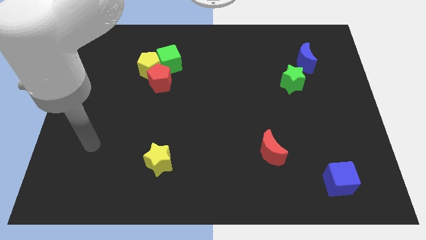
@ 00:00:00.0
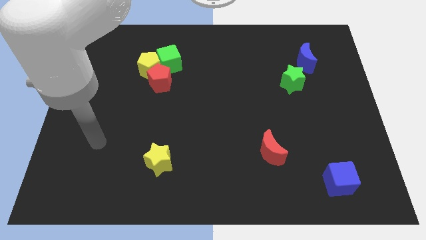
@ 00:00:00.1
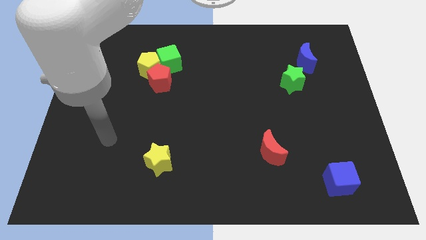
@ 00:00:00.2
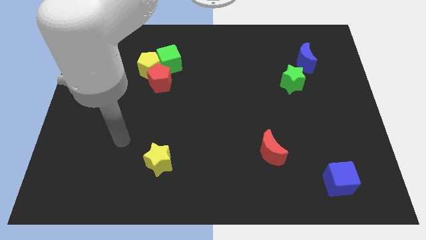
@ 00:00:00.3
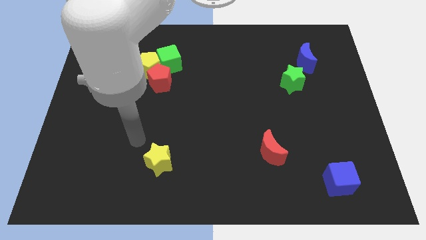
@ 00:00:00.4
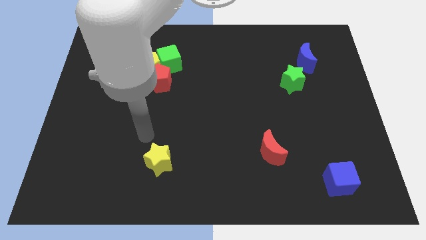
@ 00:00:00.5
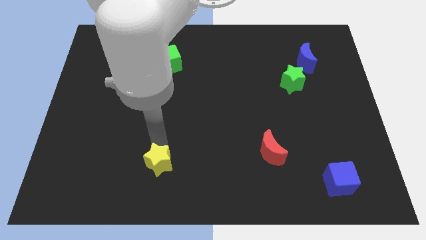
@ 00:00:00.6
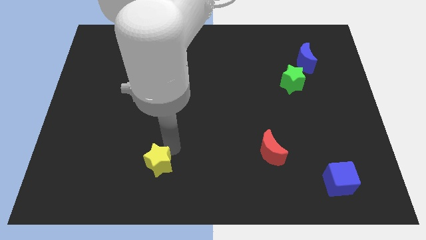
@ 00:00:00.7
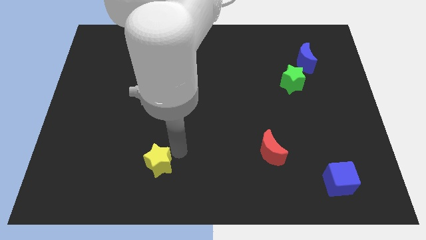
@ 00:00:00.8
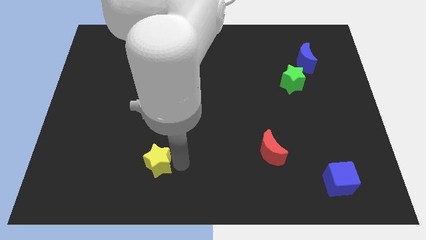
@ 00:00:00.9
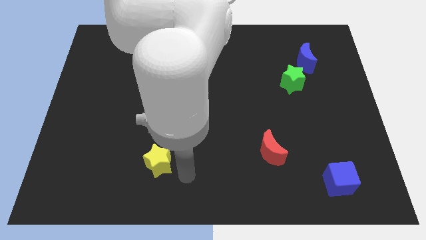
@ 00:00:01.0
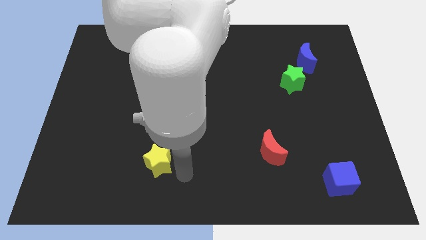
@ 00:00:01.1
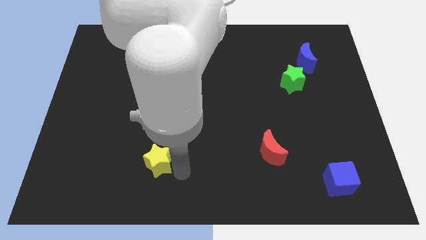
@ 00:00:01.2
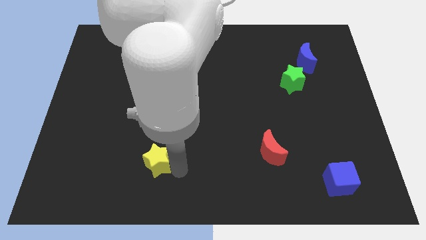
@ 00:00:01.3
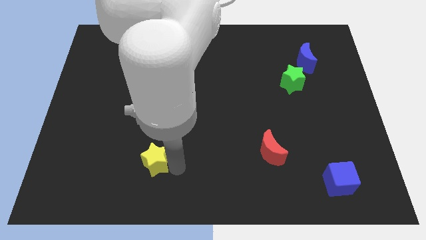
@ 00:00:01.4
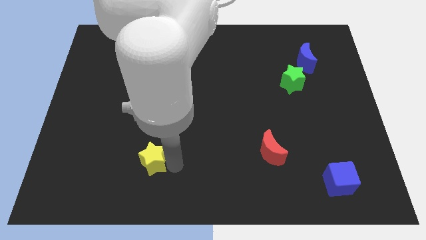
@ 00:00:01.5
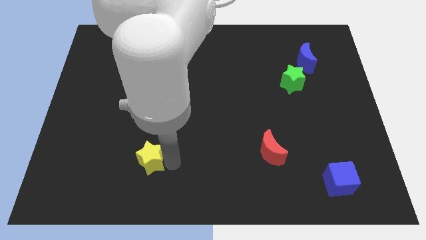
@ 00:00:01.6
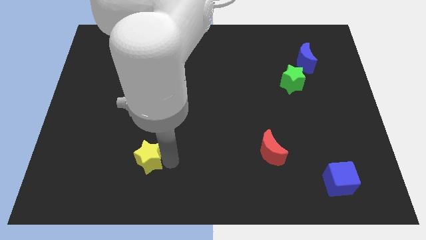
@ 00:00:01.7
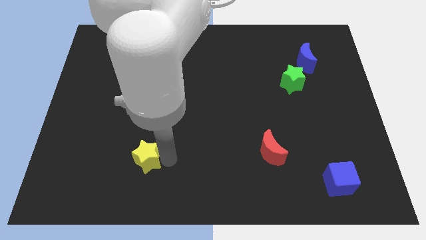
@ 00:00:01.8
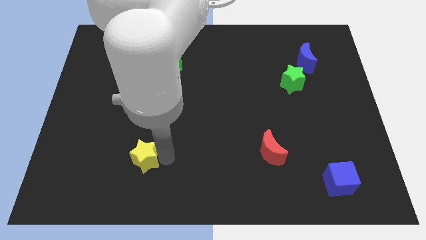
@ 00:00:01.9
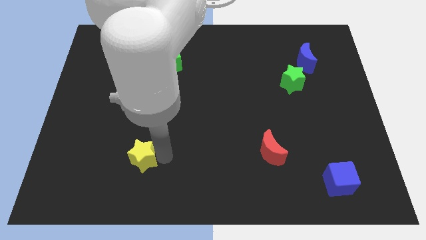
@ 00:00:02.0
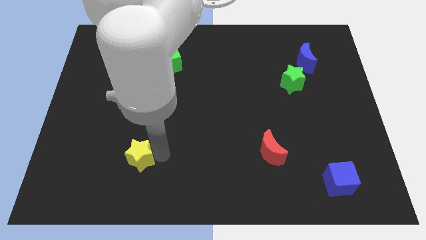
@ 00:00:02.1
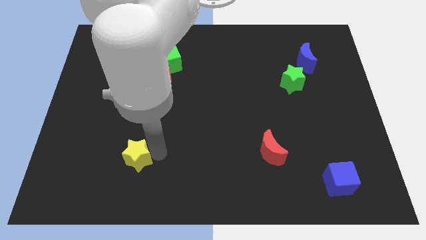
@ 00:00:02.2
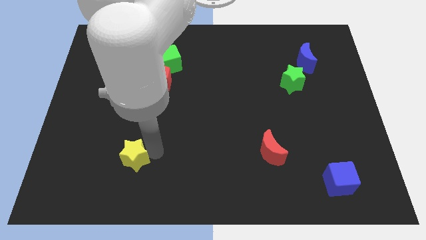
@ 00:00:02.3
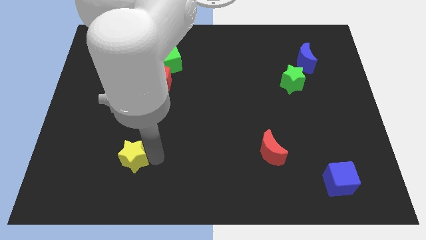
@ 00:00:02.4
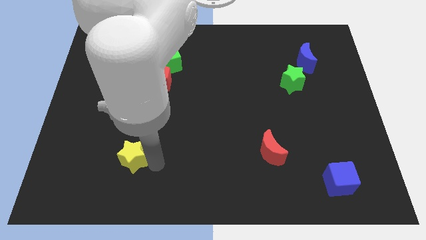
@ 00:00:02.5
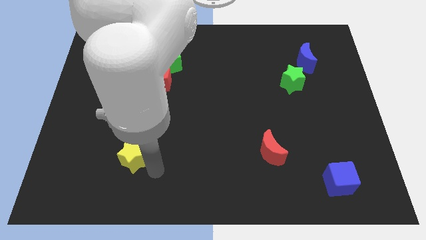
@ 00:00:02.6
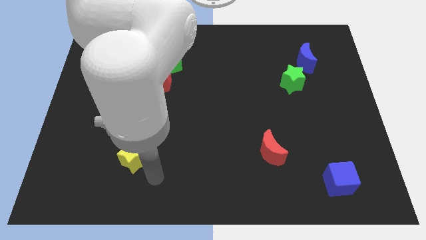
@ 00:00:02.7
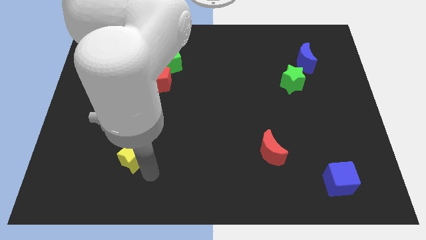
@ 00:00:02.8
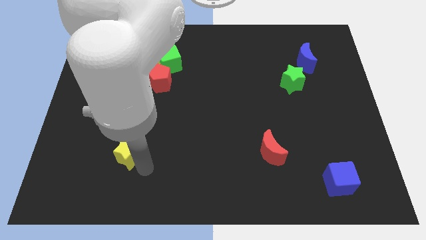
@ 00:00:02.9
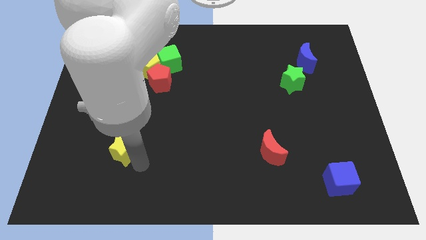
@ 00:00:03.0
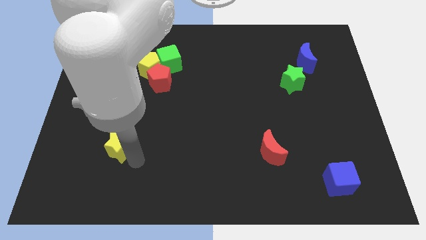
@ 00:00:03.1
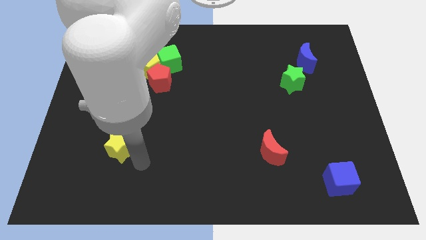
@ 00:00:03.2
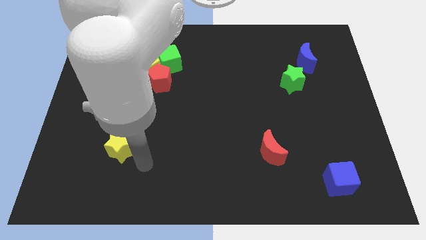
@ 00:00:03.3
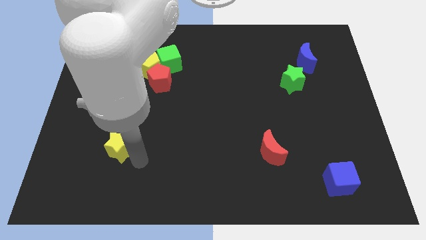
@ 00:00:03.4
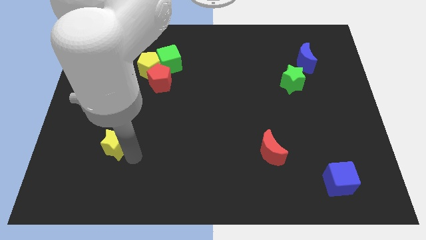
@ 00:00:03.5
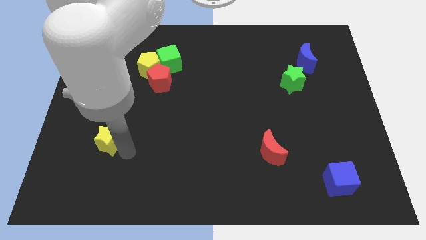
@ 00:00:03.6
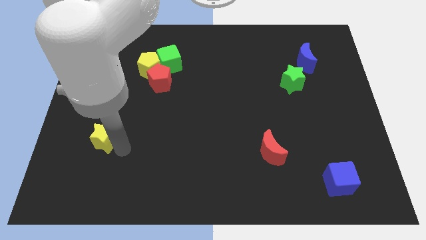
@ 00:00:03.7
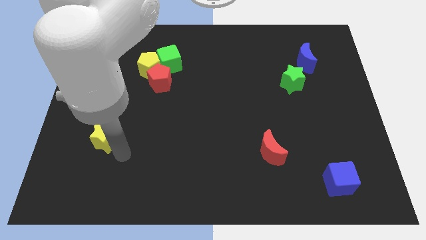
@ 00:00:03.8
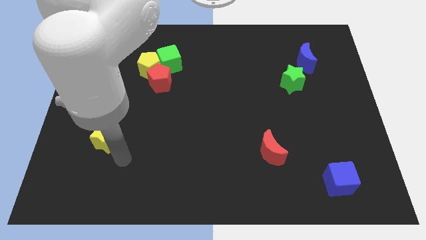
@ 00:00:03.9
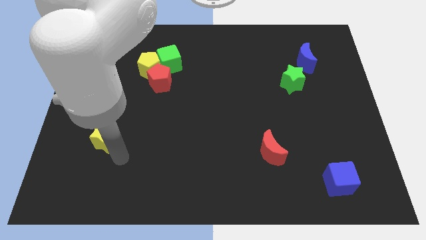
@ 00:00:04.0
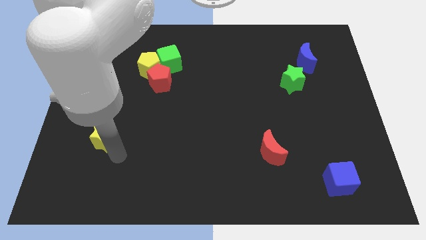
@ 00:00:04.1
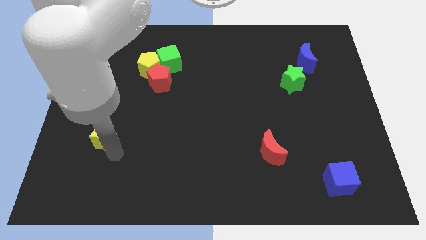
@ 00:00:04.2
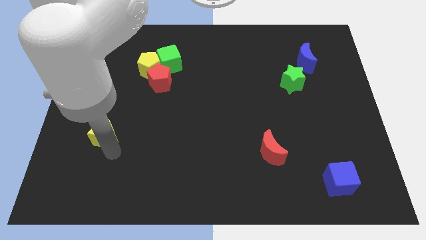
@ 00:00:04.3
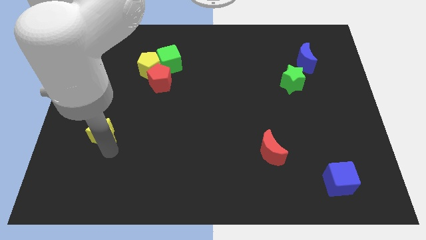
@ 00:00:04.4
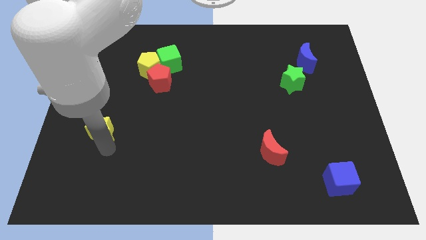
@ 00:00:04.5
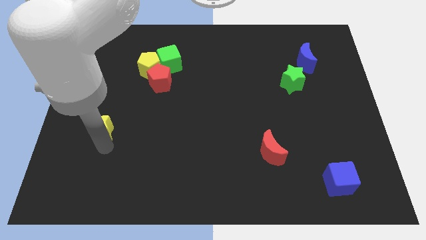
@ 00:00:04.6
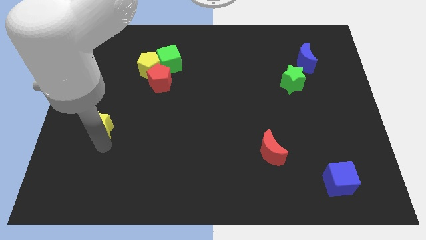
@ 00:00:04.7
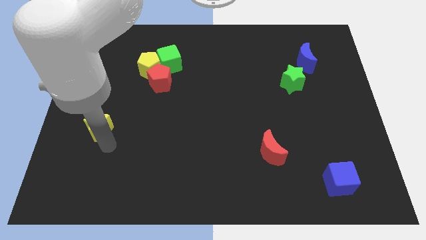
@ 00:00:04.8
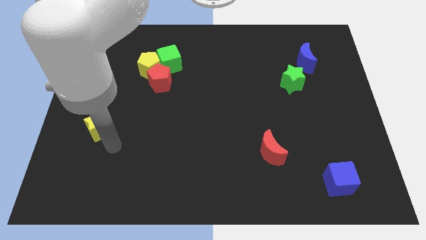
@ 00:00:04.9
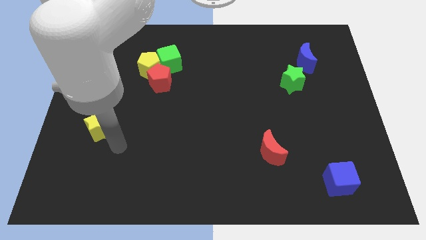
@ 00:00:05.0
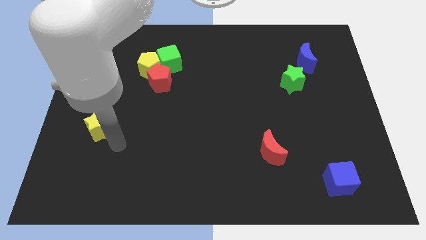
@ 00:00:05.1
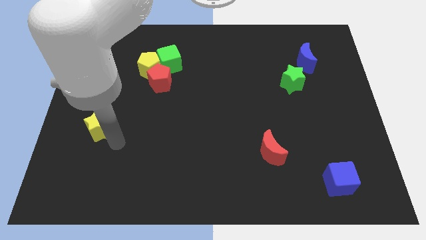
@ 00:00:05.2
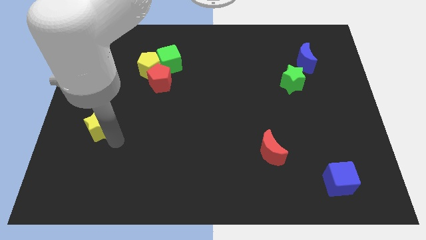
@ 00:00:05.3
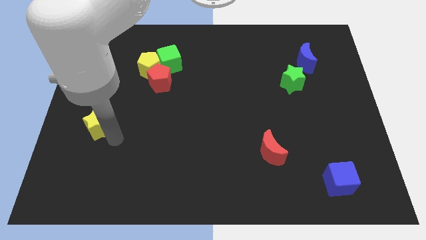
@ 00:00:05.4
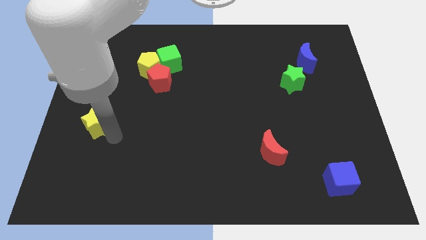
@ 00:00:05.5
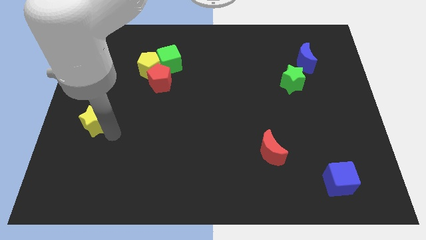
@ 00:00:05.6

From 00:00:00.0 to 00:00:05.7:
push the yellow star to the left side
